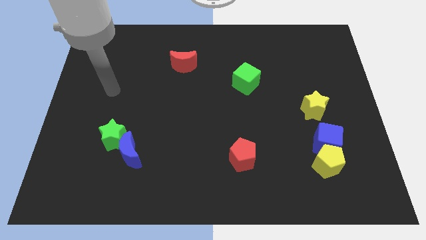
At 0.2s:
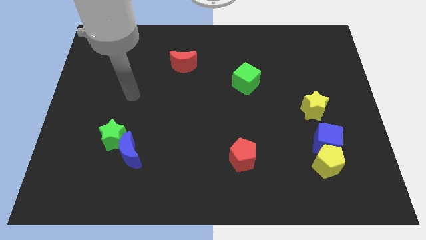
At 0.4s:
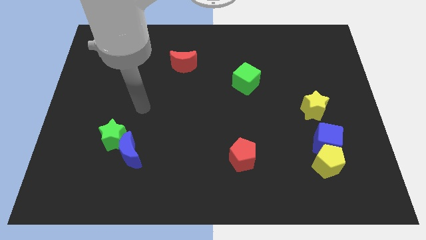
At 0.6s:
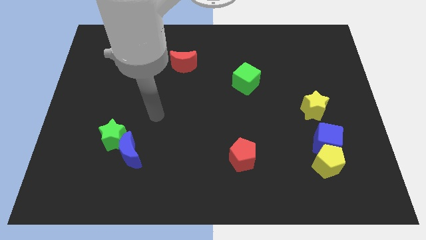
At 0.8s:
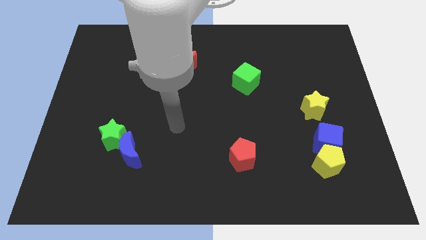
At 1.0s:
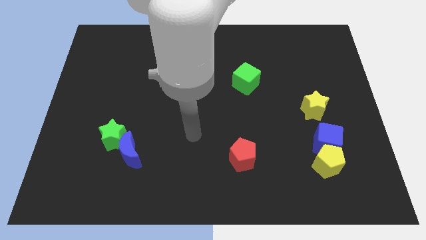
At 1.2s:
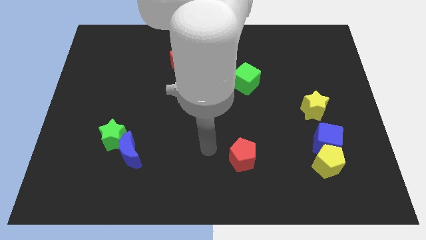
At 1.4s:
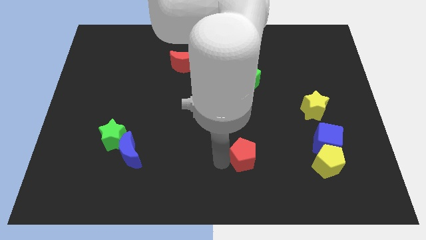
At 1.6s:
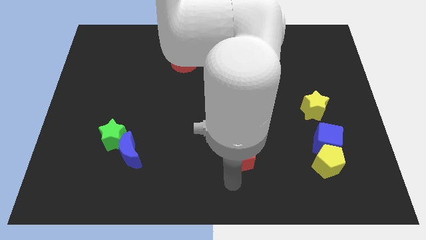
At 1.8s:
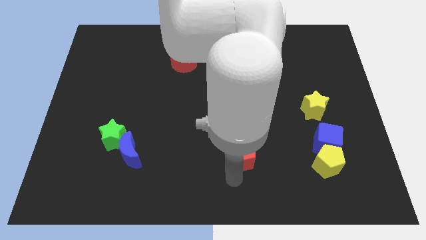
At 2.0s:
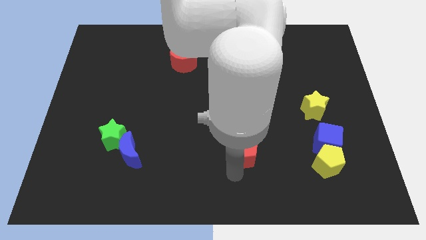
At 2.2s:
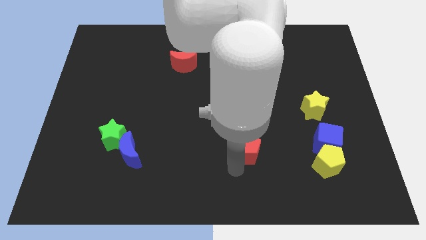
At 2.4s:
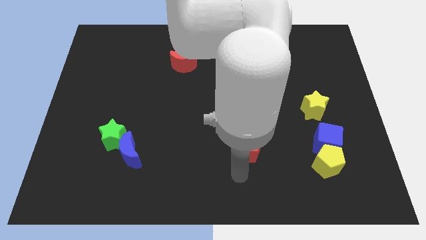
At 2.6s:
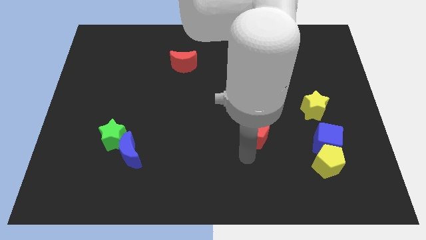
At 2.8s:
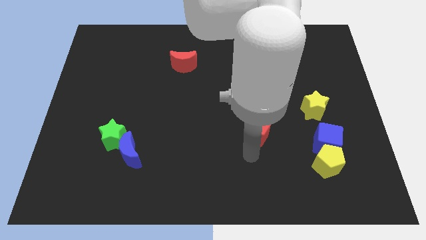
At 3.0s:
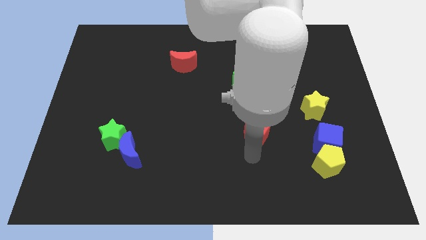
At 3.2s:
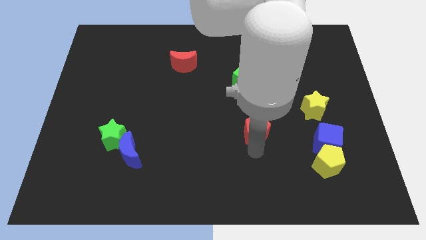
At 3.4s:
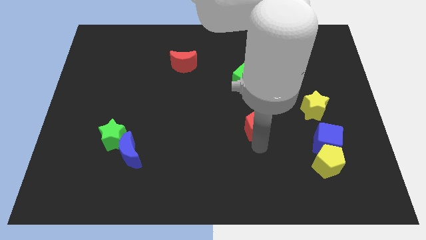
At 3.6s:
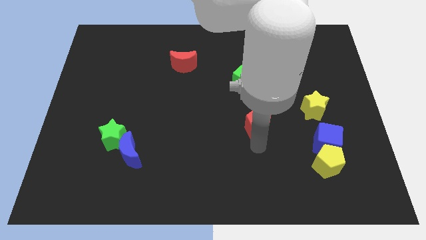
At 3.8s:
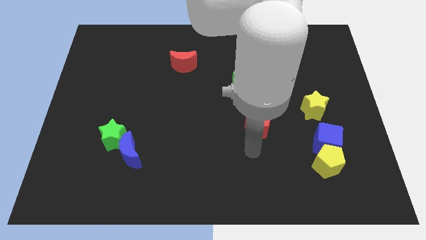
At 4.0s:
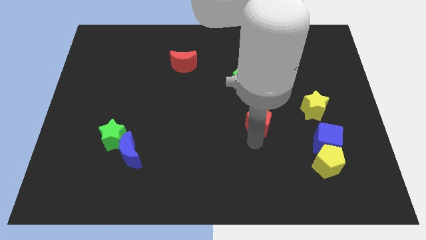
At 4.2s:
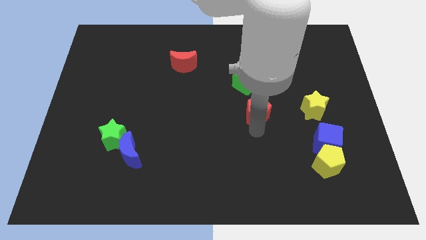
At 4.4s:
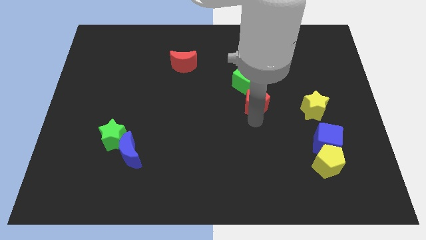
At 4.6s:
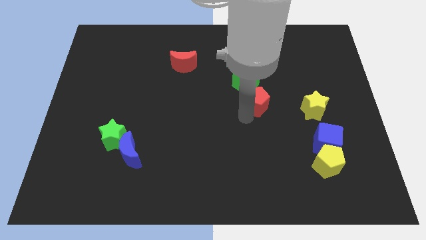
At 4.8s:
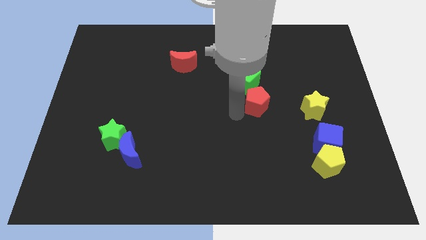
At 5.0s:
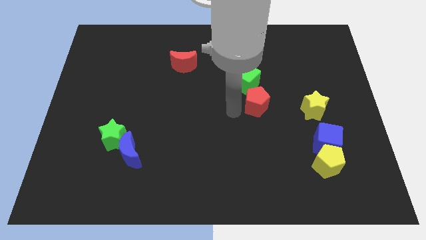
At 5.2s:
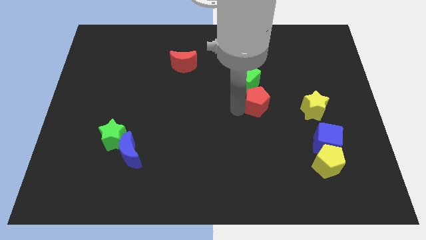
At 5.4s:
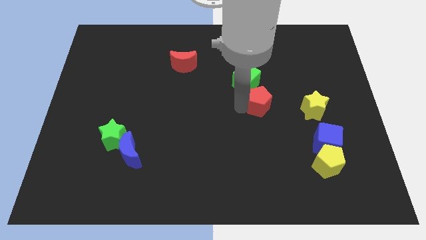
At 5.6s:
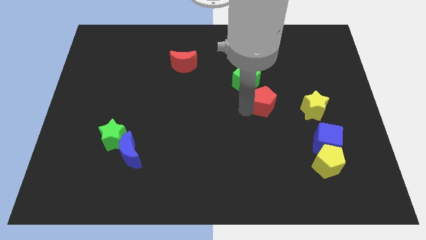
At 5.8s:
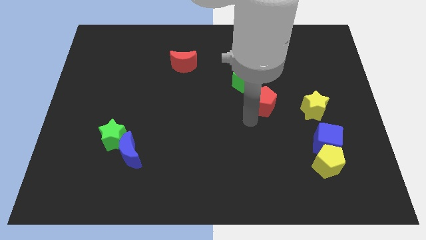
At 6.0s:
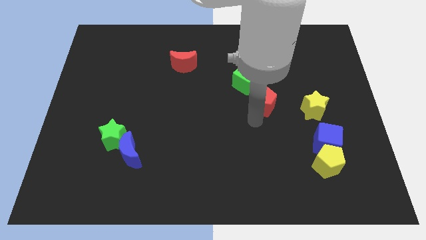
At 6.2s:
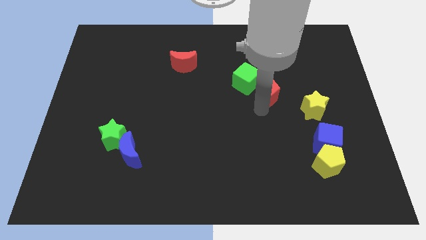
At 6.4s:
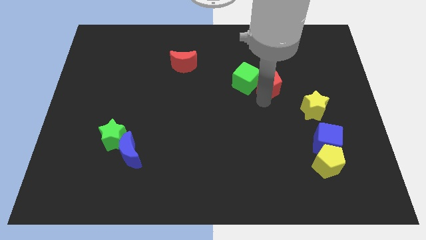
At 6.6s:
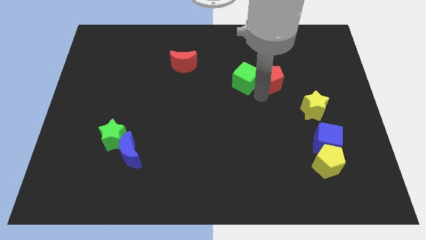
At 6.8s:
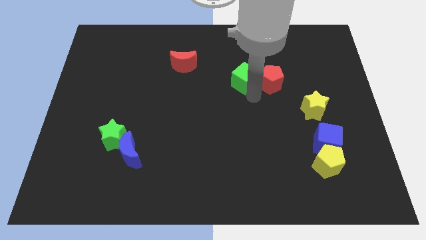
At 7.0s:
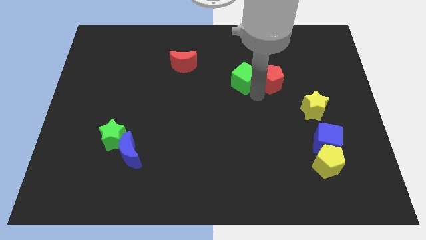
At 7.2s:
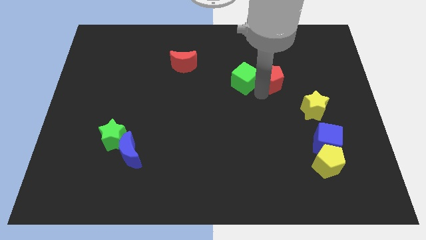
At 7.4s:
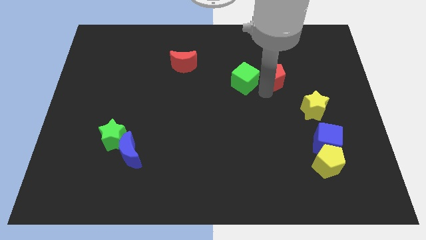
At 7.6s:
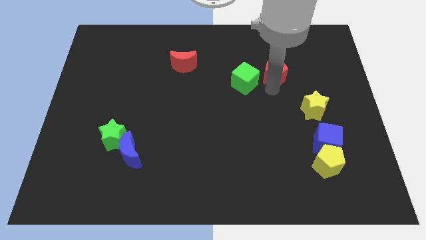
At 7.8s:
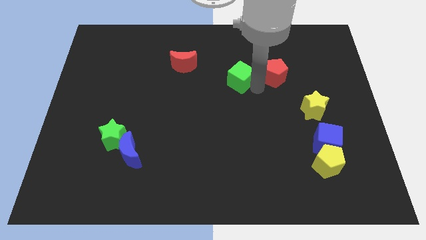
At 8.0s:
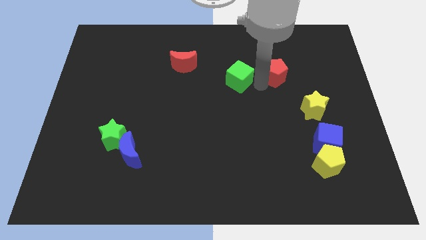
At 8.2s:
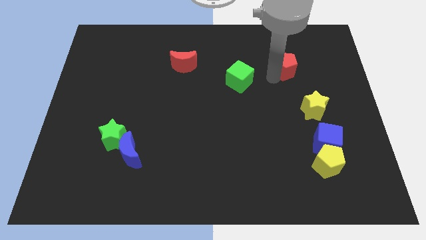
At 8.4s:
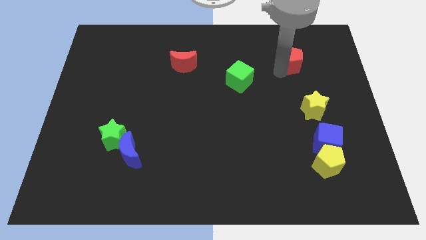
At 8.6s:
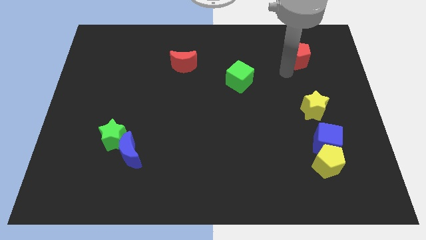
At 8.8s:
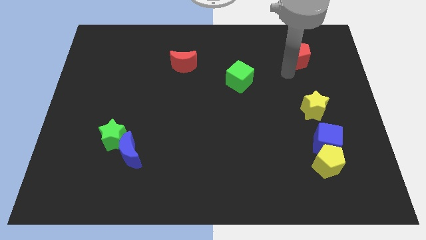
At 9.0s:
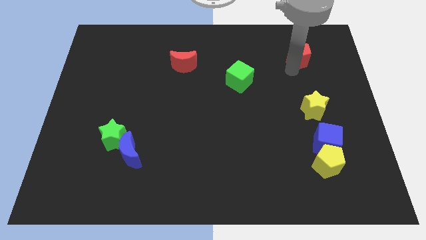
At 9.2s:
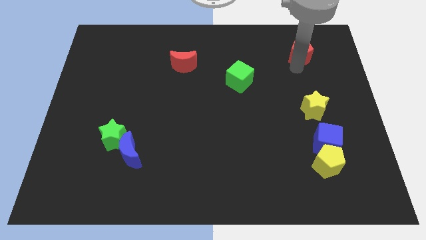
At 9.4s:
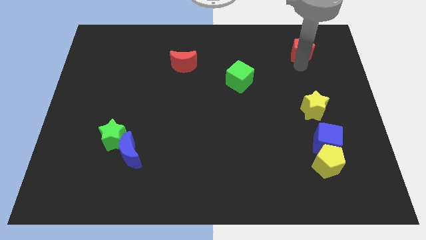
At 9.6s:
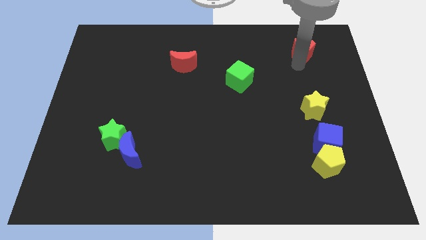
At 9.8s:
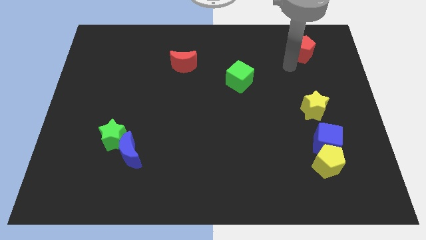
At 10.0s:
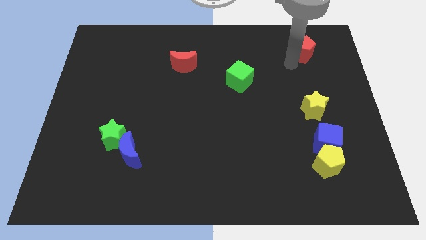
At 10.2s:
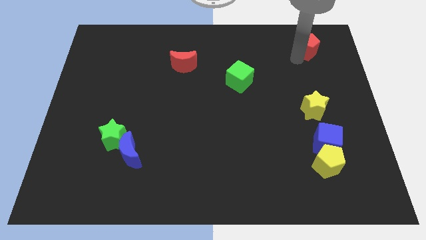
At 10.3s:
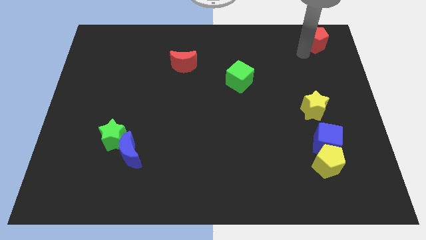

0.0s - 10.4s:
slide the red pentagon to the top right corner

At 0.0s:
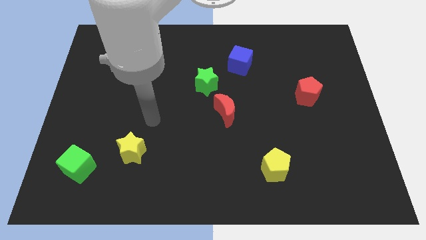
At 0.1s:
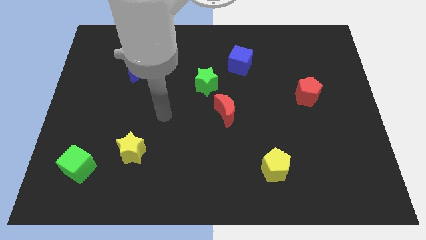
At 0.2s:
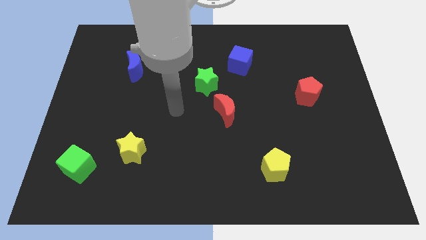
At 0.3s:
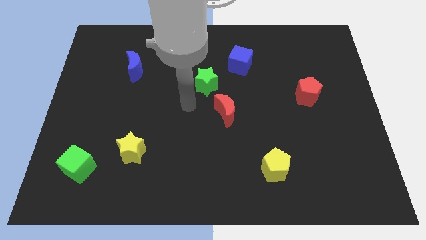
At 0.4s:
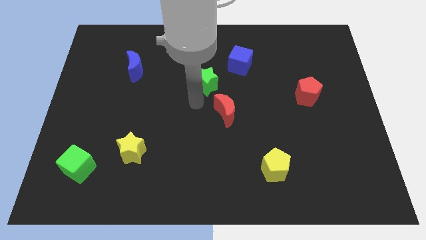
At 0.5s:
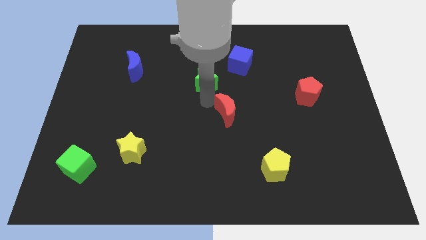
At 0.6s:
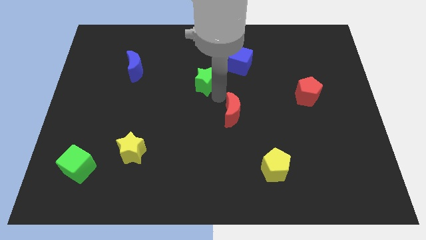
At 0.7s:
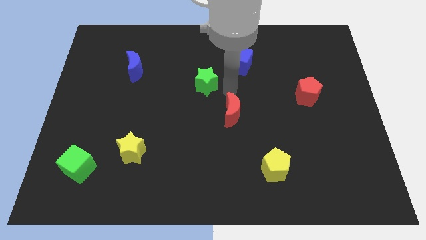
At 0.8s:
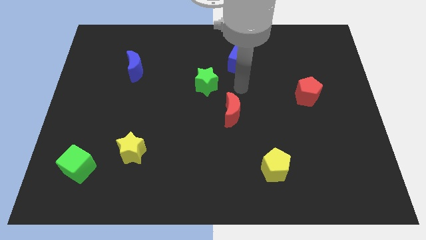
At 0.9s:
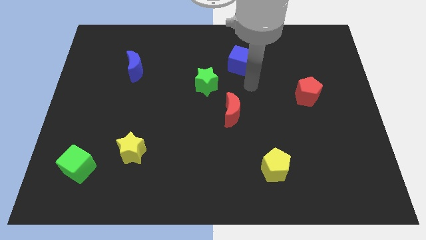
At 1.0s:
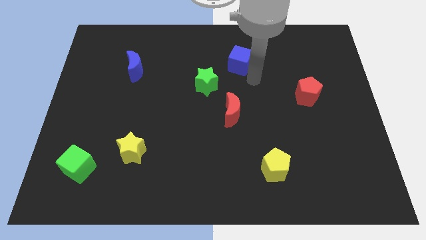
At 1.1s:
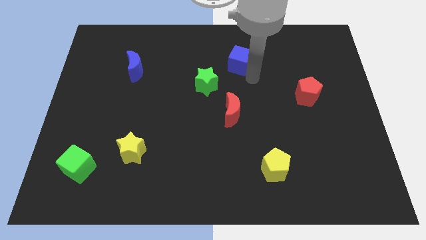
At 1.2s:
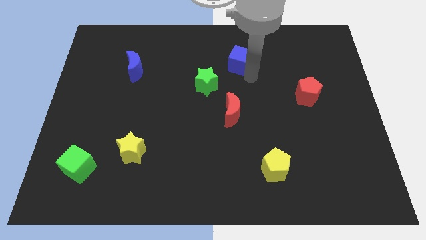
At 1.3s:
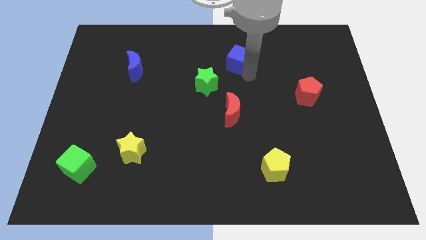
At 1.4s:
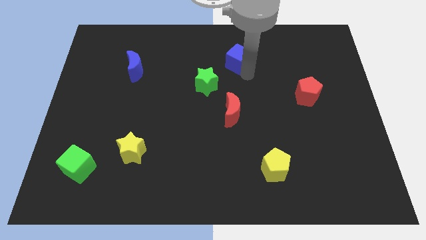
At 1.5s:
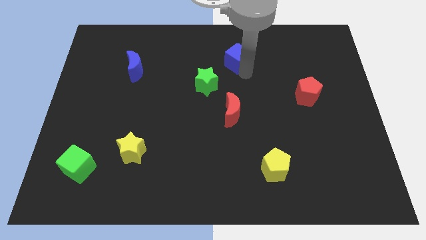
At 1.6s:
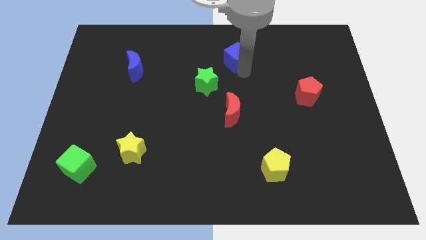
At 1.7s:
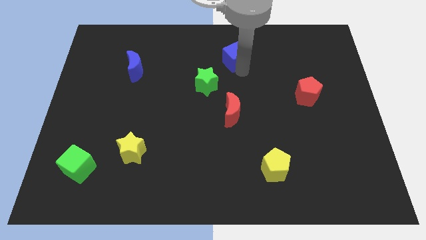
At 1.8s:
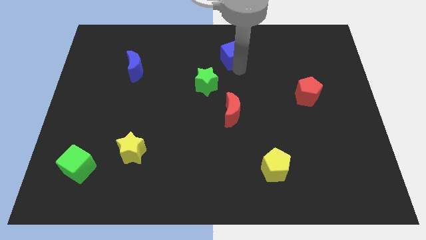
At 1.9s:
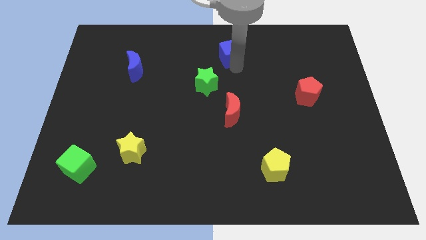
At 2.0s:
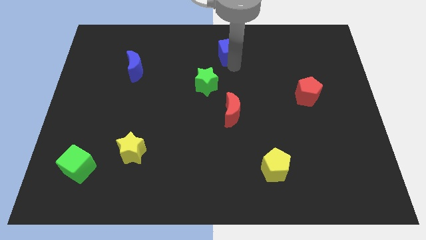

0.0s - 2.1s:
push the blue cube to the towards your base
